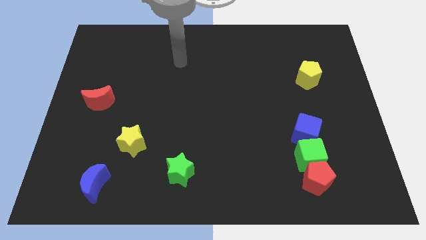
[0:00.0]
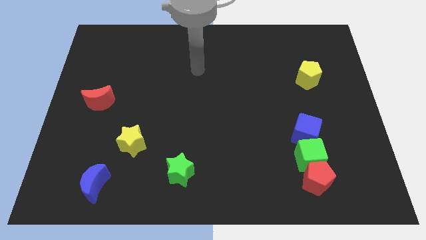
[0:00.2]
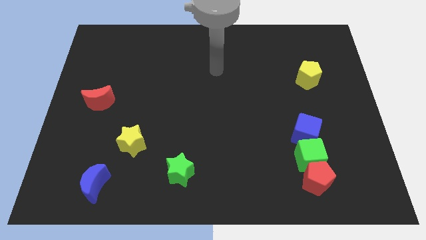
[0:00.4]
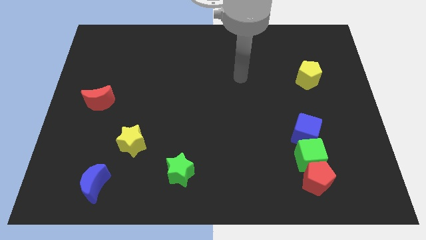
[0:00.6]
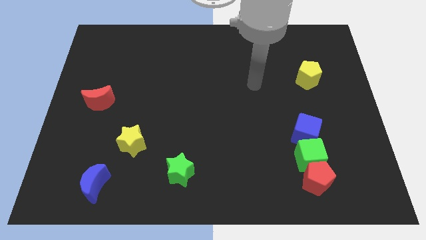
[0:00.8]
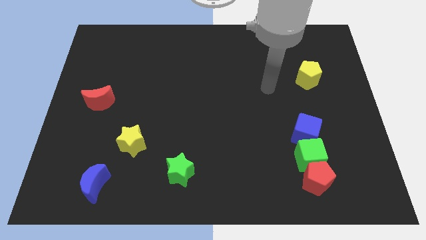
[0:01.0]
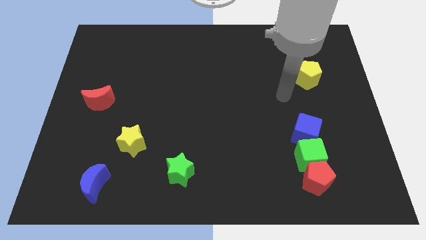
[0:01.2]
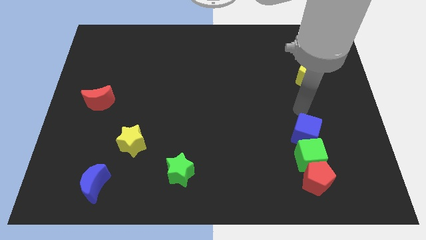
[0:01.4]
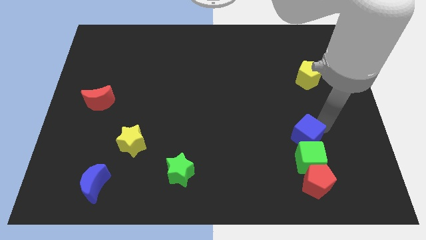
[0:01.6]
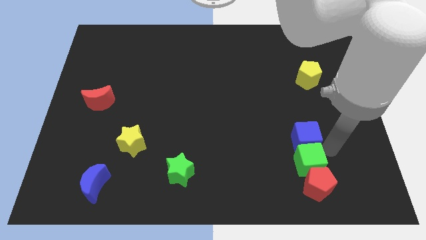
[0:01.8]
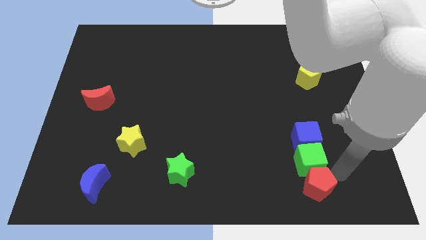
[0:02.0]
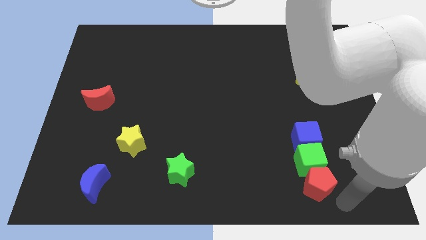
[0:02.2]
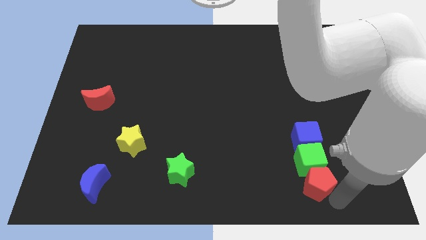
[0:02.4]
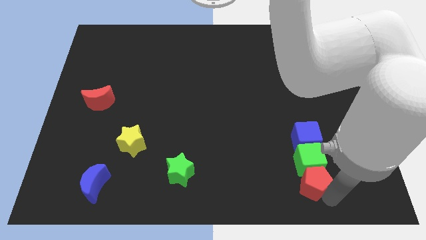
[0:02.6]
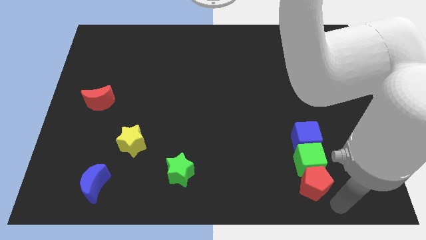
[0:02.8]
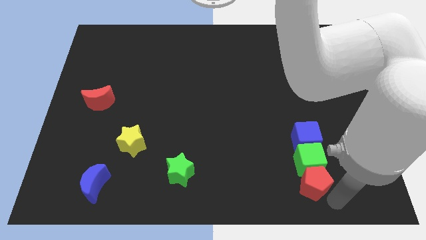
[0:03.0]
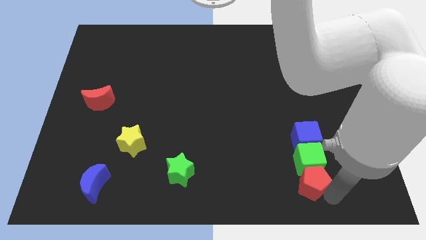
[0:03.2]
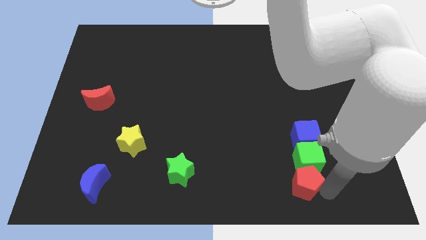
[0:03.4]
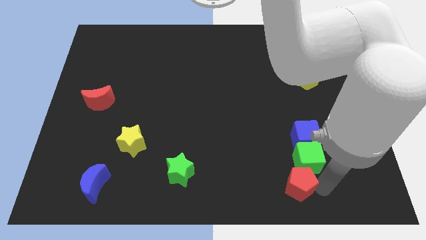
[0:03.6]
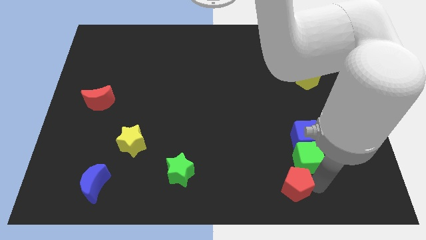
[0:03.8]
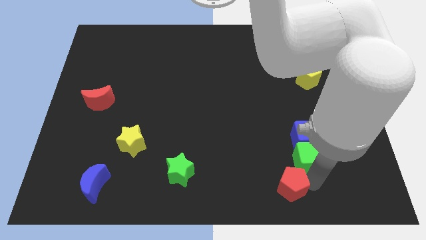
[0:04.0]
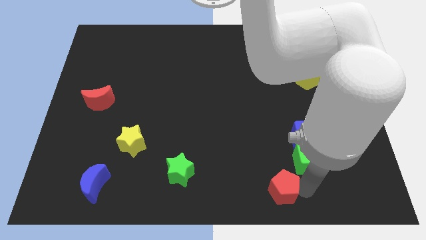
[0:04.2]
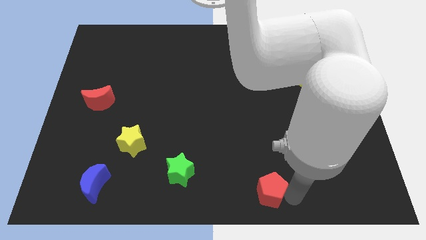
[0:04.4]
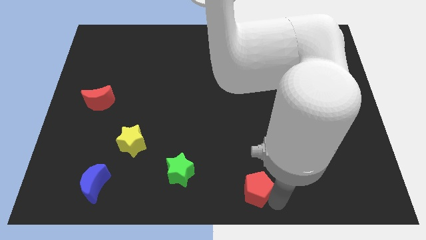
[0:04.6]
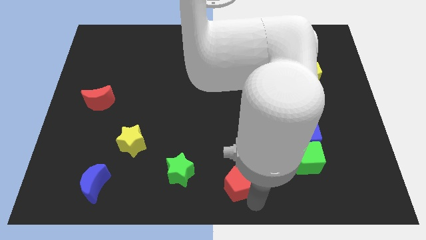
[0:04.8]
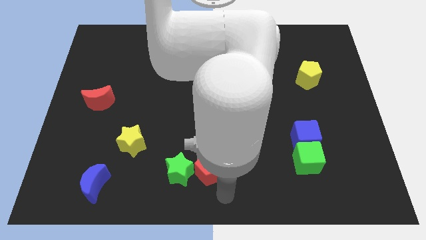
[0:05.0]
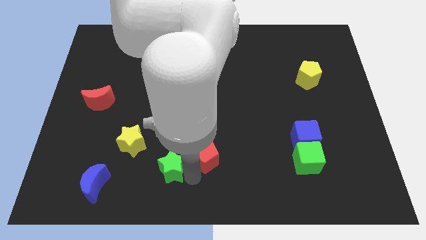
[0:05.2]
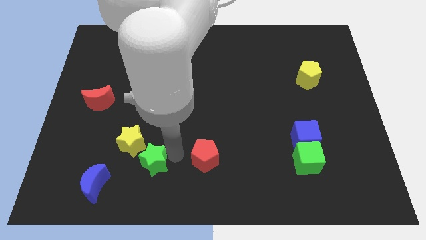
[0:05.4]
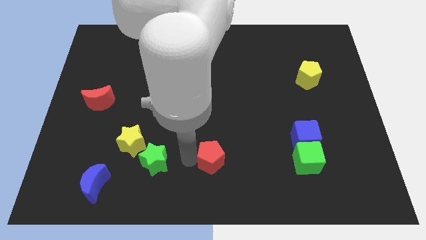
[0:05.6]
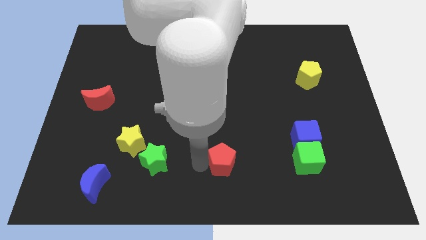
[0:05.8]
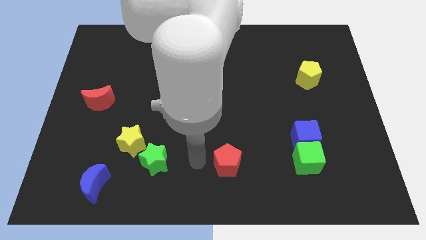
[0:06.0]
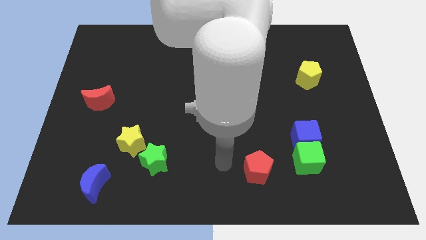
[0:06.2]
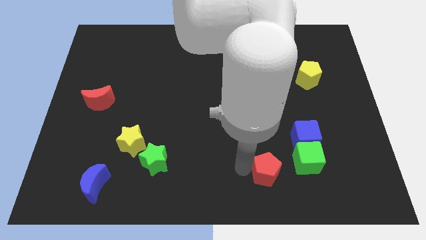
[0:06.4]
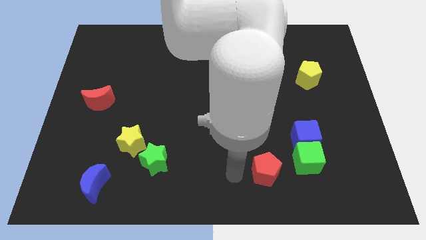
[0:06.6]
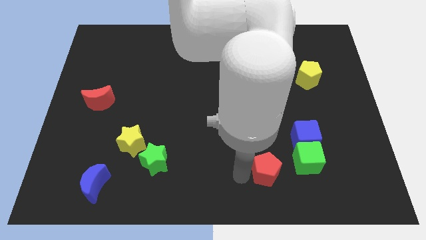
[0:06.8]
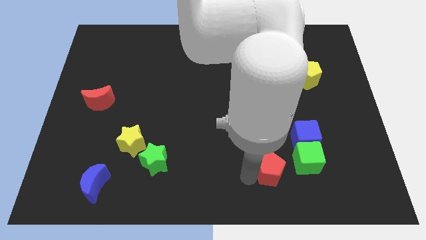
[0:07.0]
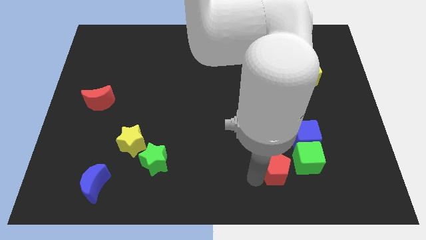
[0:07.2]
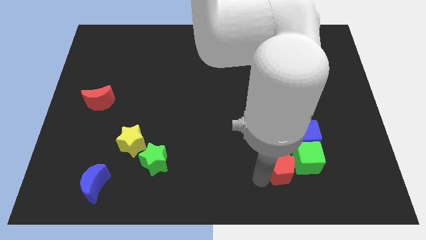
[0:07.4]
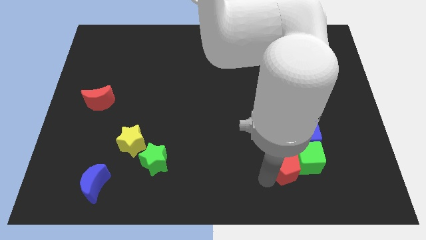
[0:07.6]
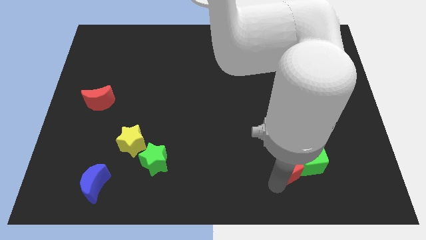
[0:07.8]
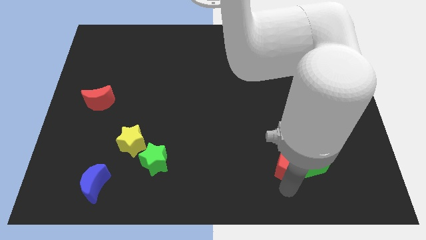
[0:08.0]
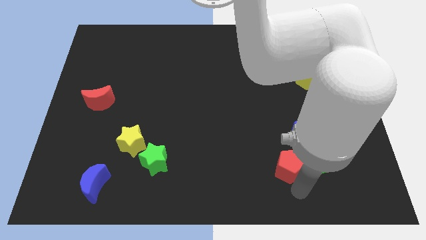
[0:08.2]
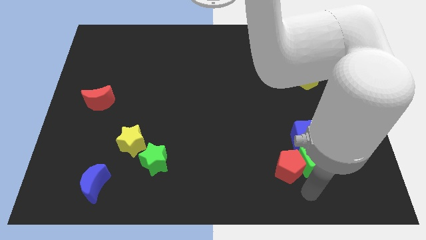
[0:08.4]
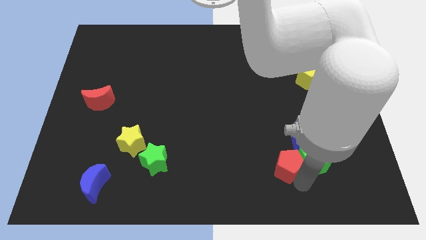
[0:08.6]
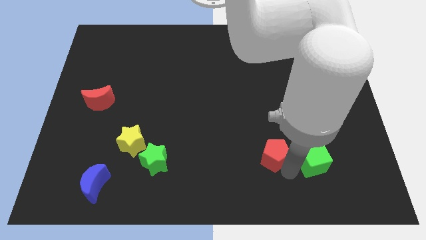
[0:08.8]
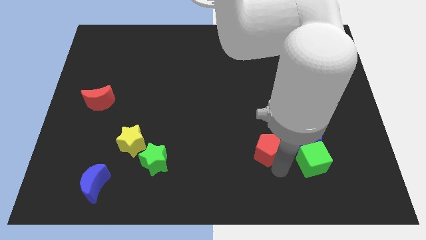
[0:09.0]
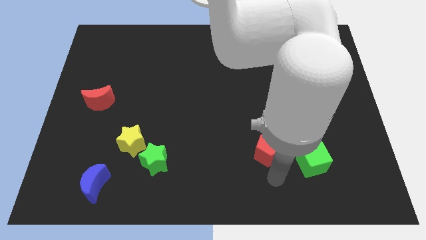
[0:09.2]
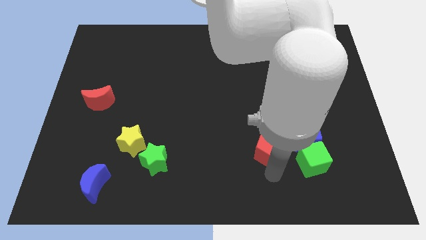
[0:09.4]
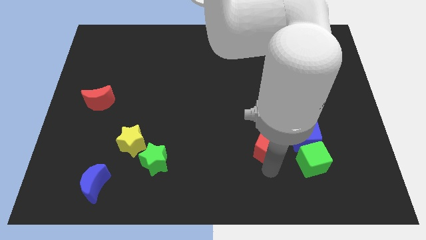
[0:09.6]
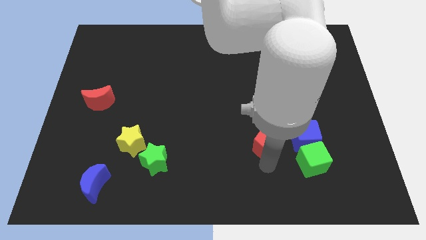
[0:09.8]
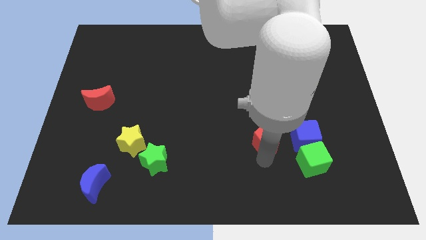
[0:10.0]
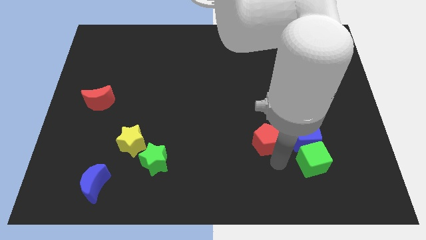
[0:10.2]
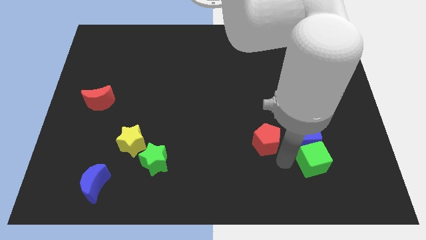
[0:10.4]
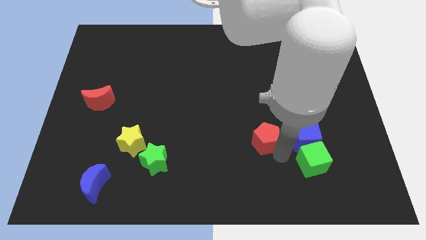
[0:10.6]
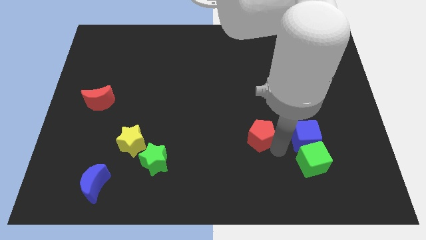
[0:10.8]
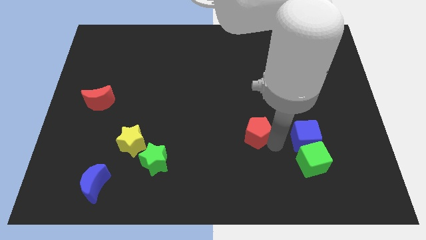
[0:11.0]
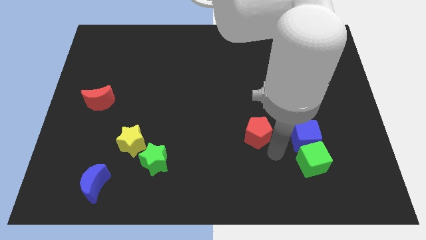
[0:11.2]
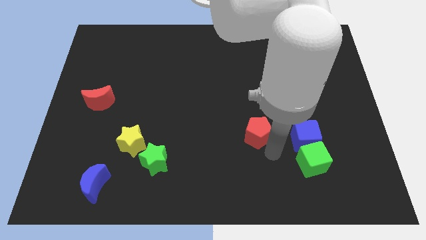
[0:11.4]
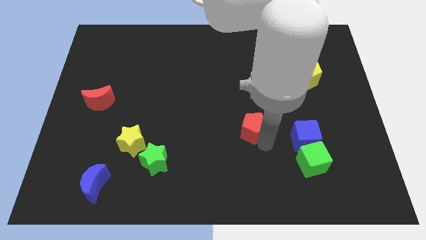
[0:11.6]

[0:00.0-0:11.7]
push the red pentagon to the middle

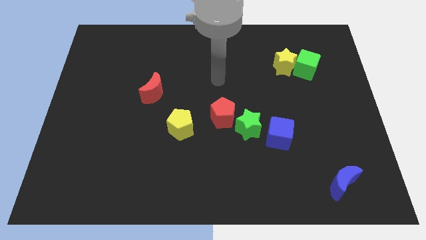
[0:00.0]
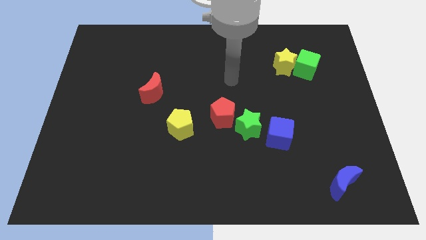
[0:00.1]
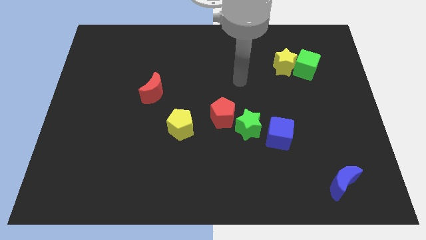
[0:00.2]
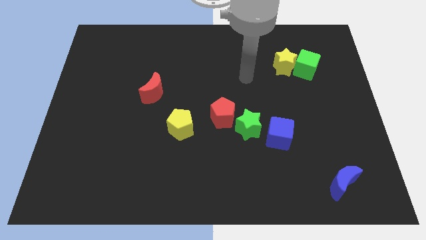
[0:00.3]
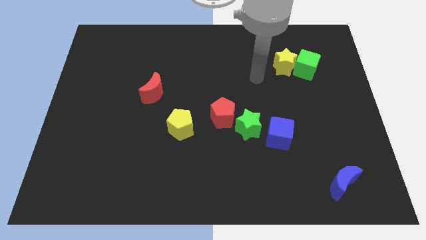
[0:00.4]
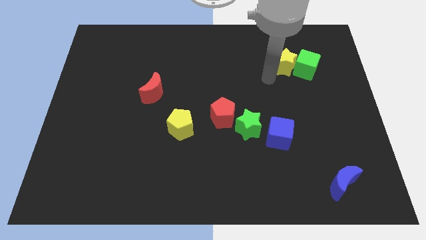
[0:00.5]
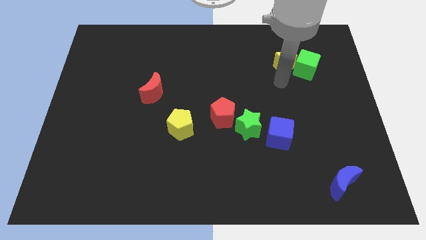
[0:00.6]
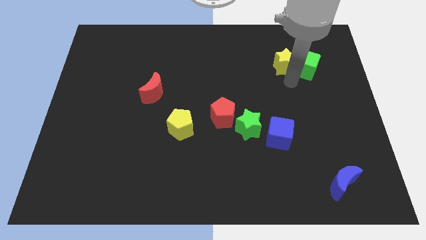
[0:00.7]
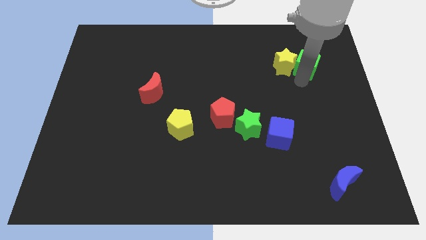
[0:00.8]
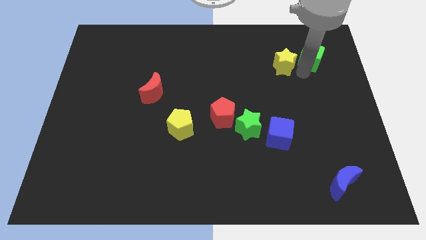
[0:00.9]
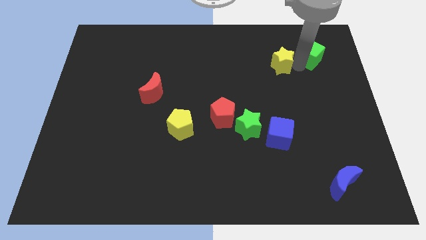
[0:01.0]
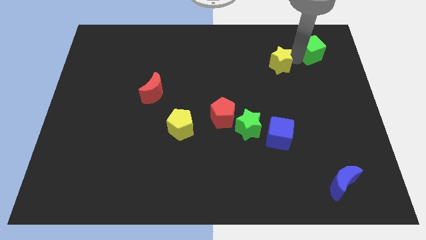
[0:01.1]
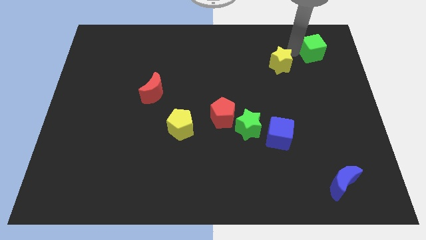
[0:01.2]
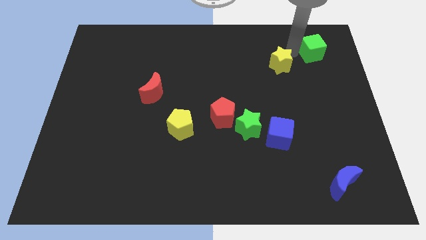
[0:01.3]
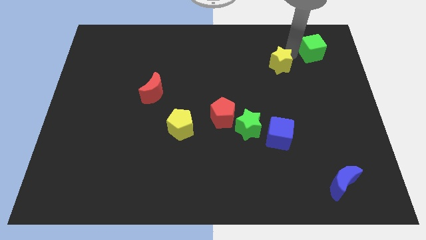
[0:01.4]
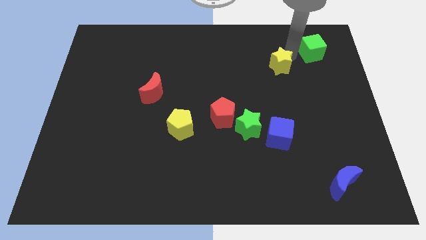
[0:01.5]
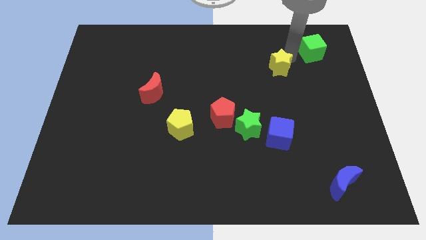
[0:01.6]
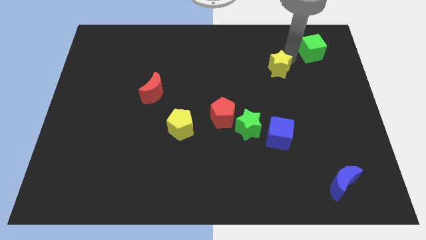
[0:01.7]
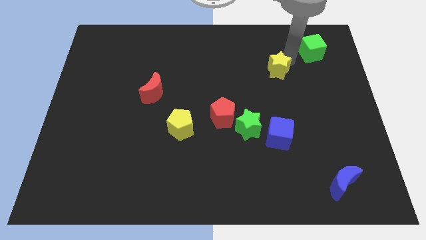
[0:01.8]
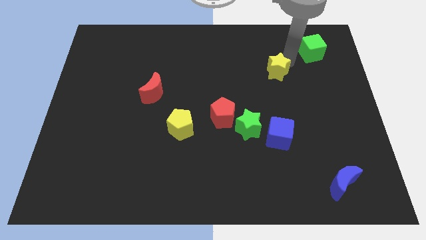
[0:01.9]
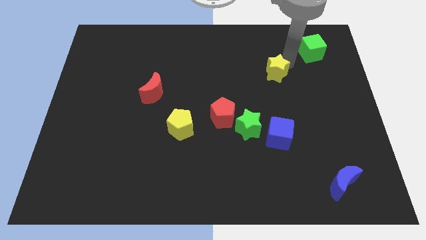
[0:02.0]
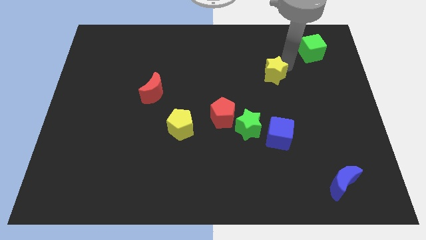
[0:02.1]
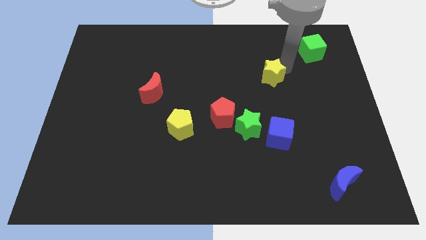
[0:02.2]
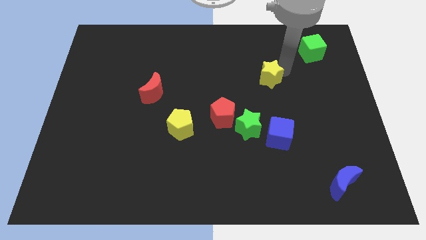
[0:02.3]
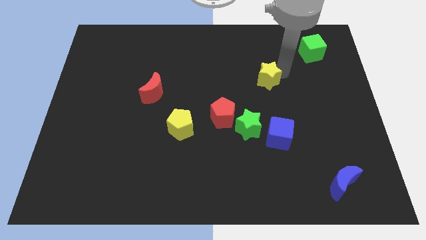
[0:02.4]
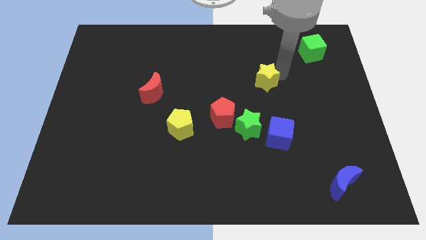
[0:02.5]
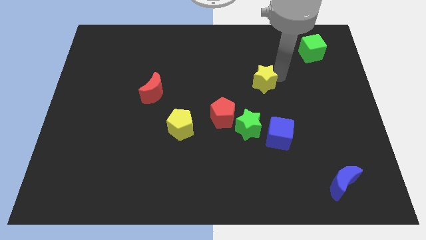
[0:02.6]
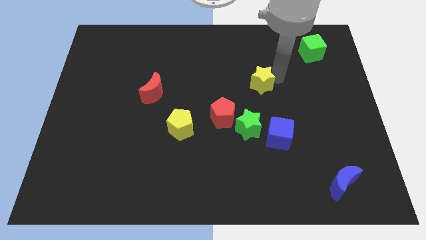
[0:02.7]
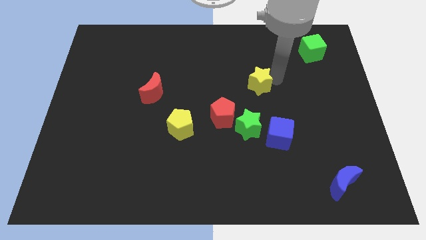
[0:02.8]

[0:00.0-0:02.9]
move the yellow star to the center
